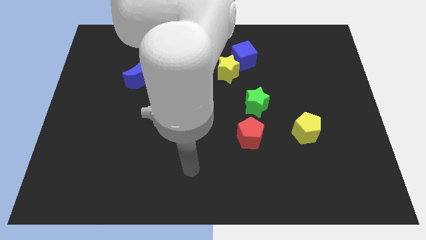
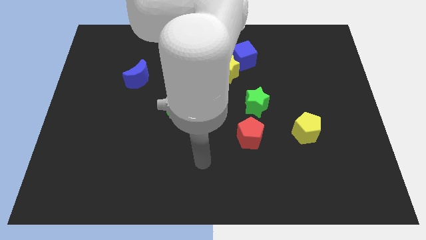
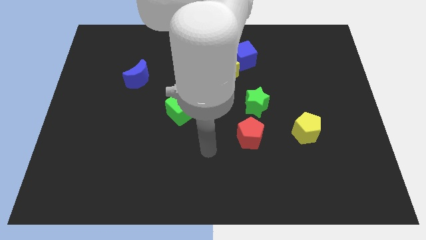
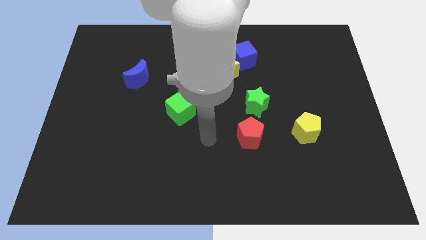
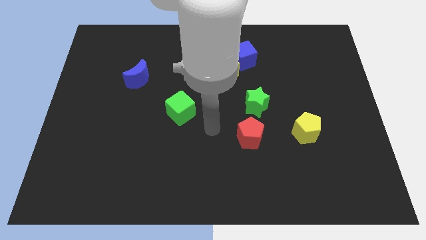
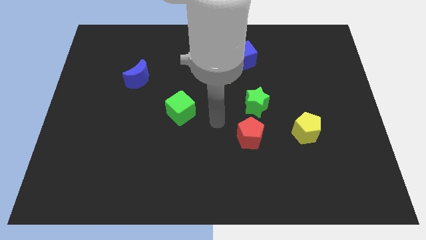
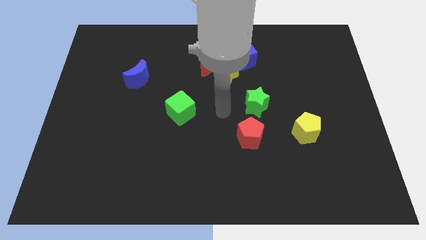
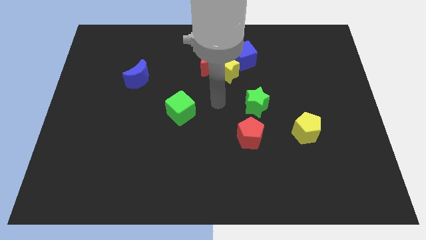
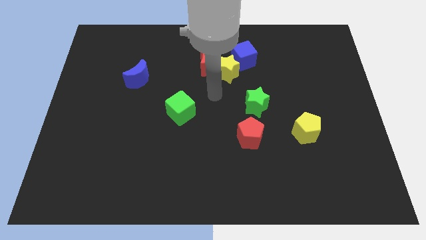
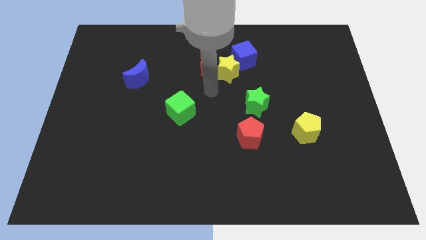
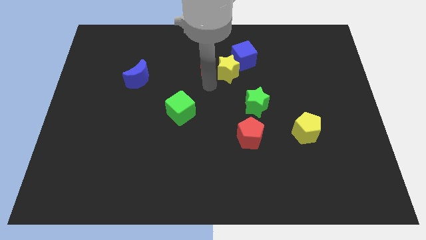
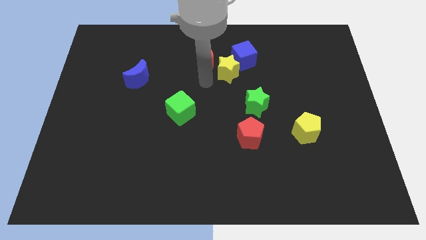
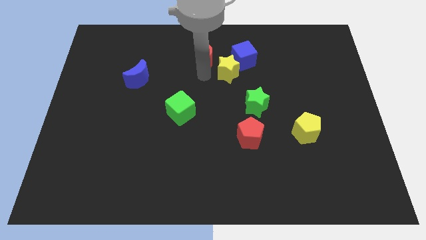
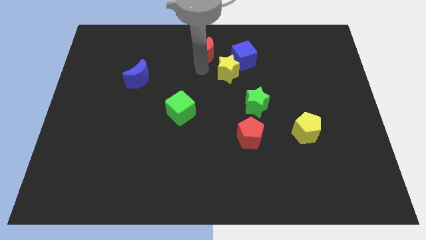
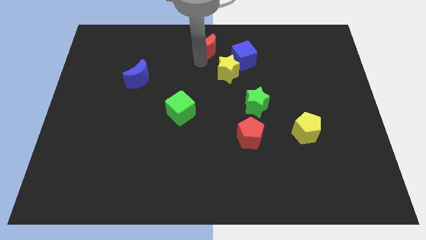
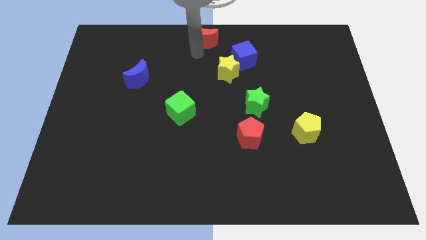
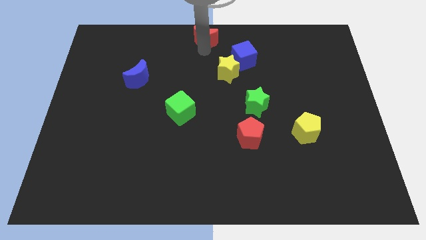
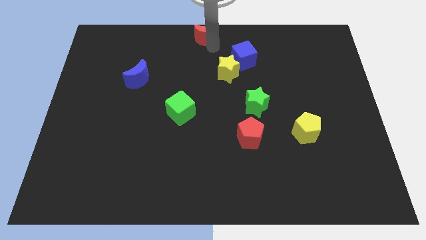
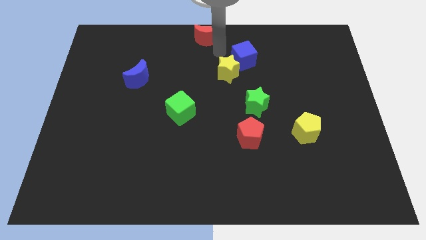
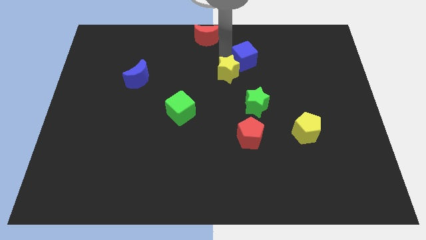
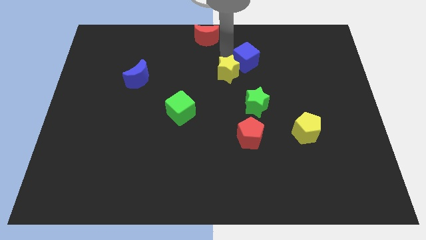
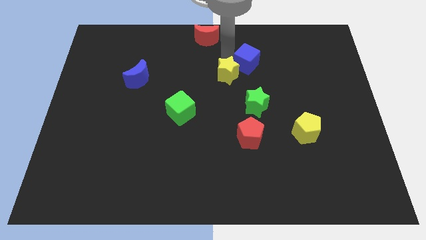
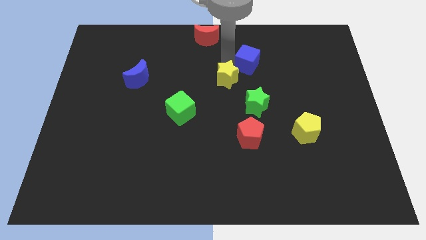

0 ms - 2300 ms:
separate the yellow star from the blue cube and red moon

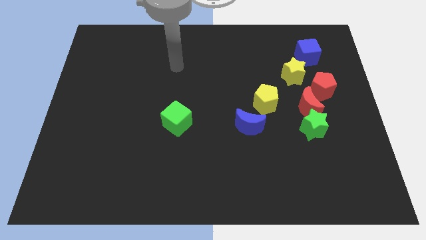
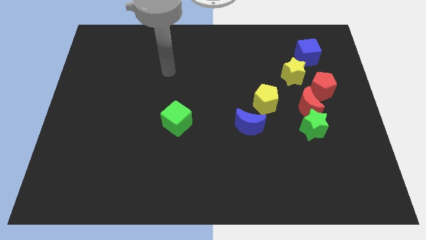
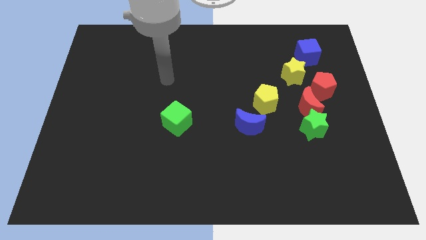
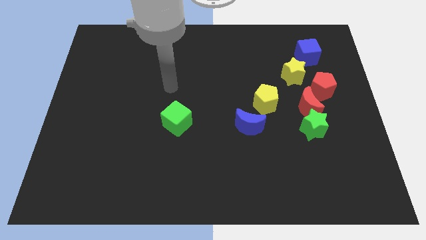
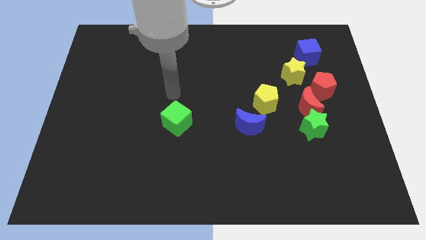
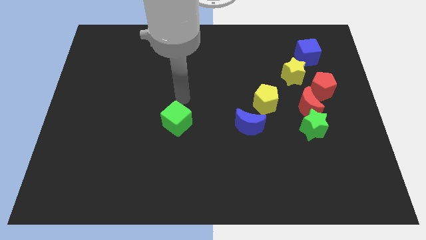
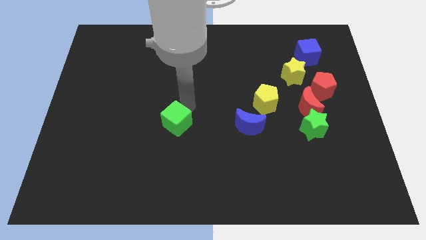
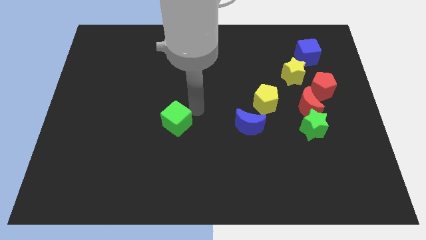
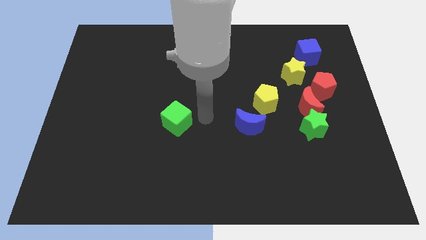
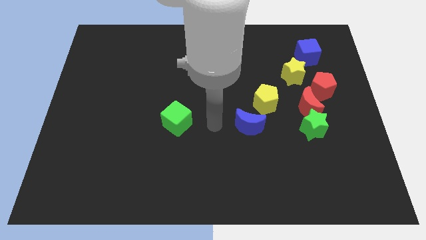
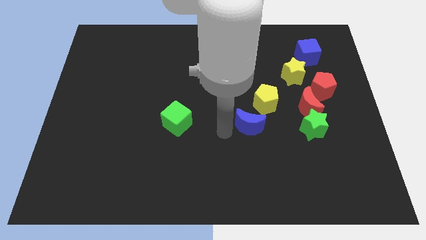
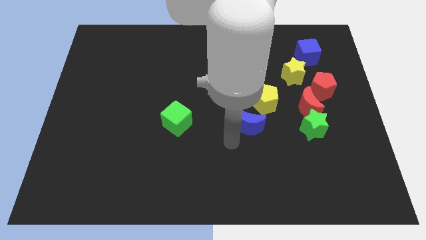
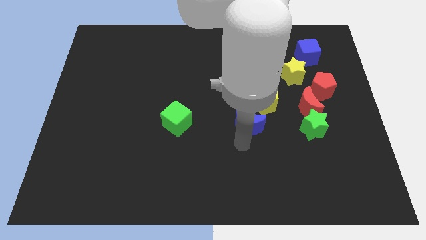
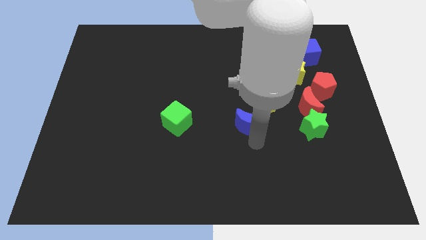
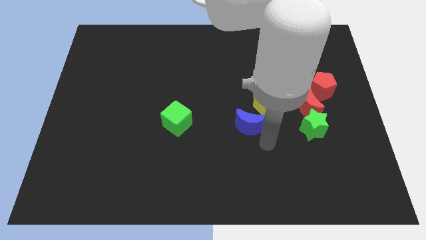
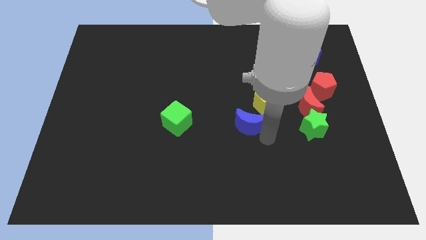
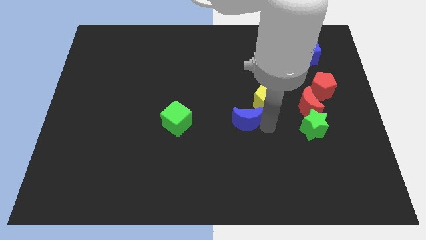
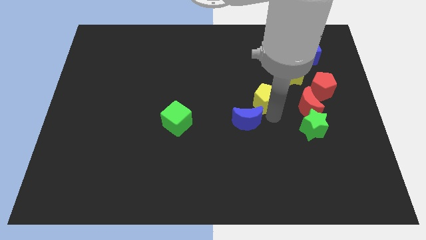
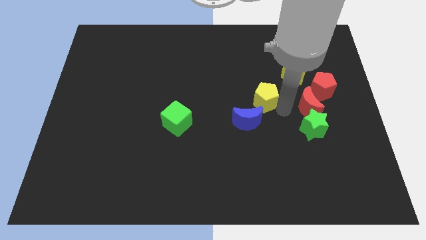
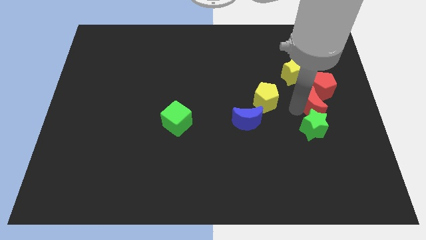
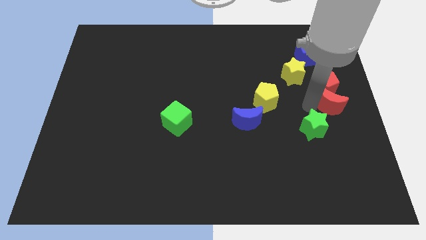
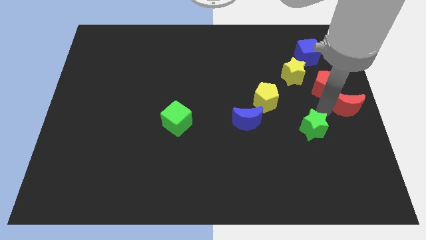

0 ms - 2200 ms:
separate the green star from the red moon

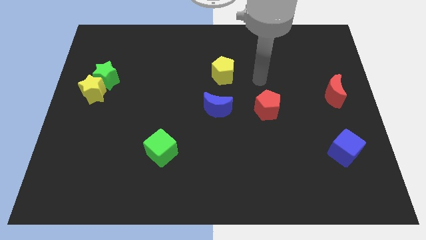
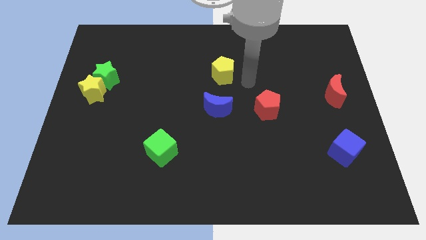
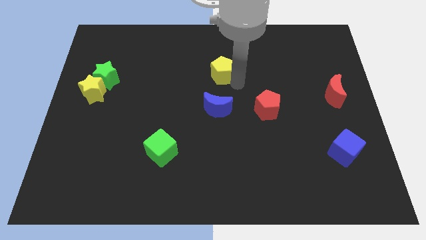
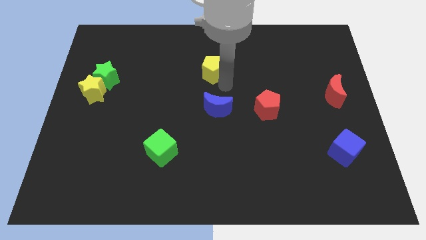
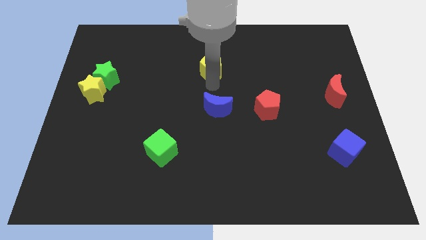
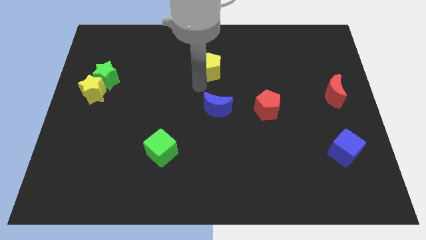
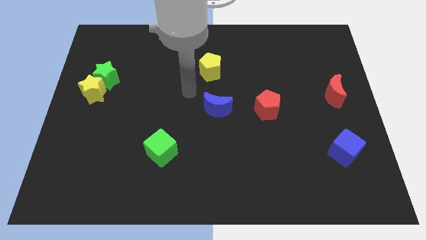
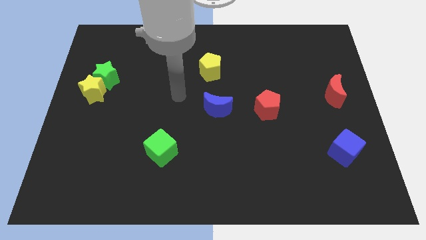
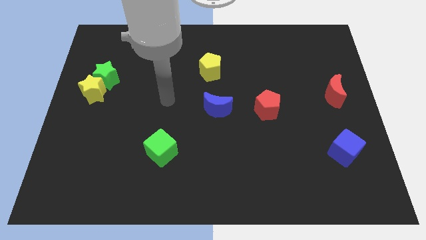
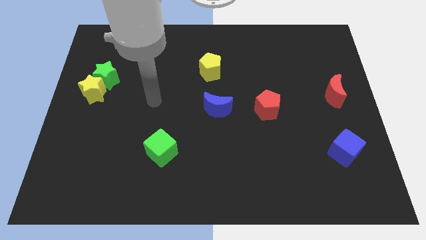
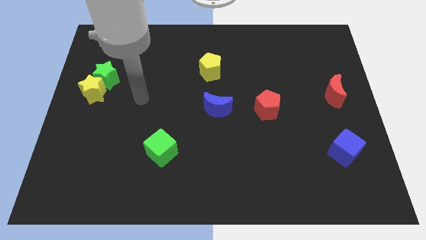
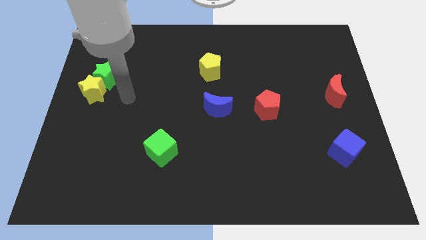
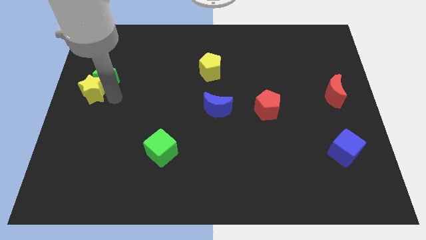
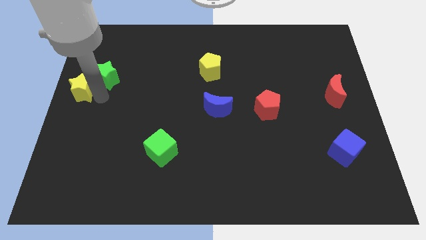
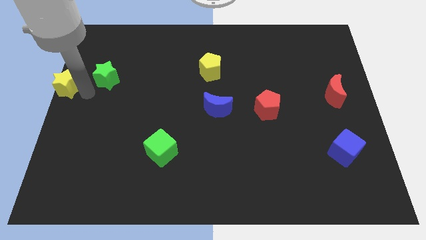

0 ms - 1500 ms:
pull the green star apart from the yellow star

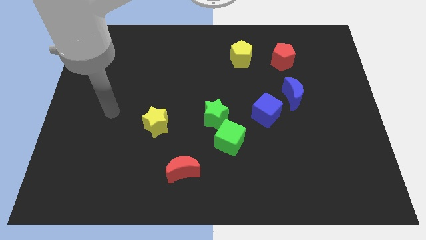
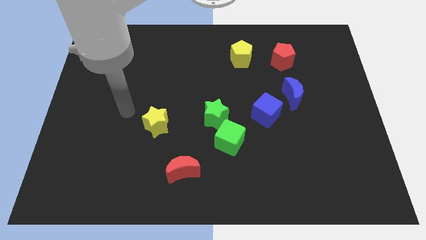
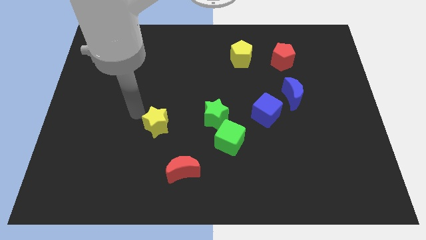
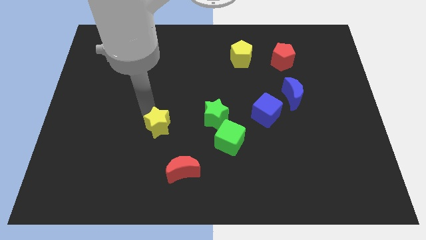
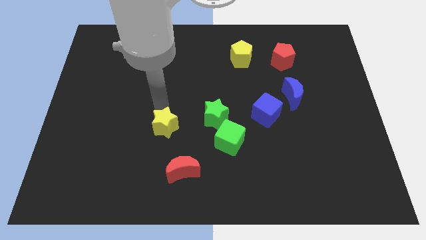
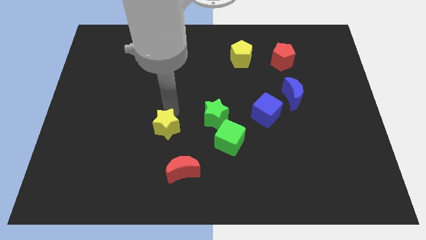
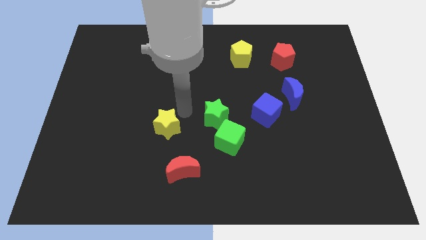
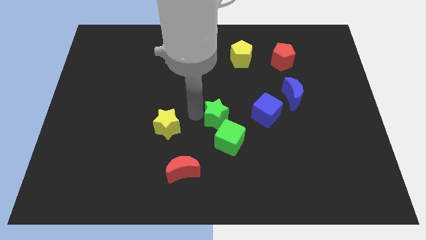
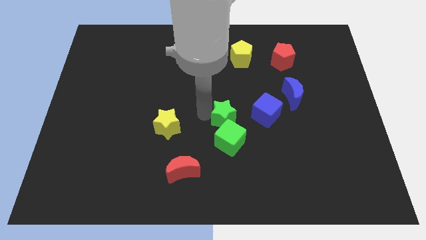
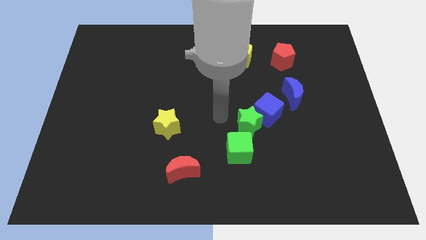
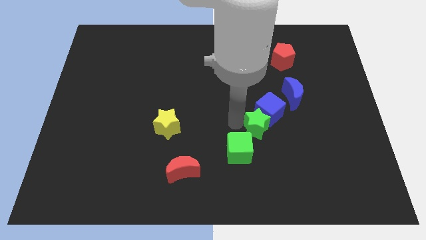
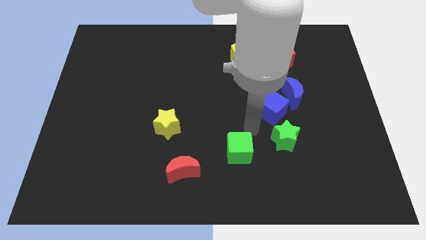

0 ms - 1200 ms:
pull the green cube apart from the green star

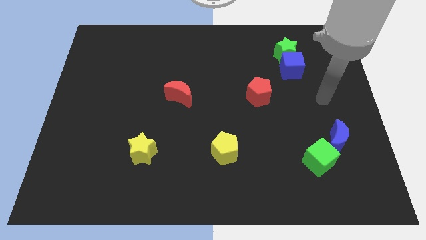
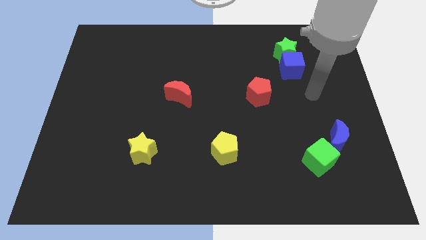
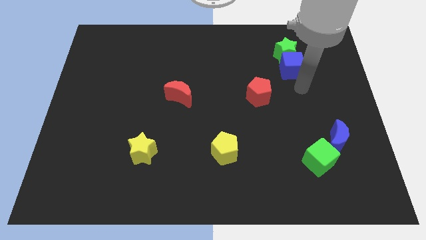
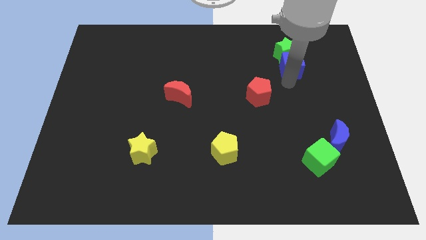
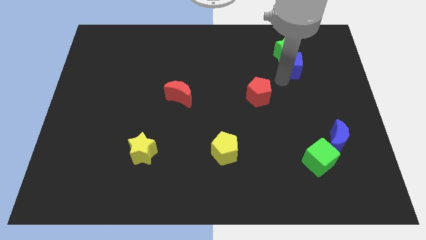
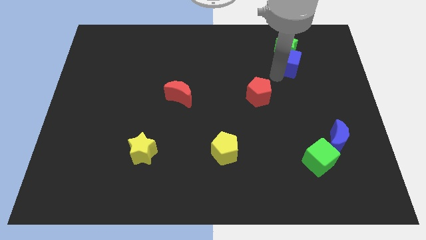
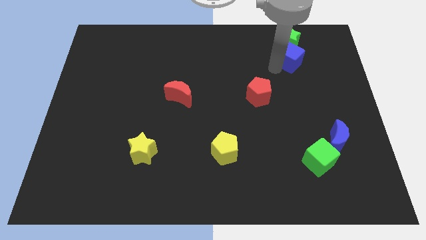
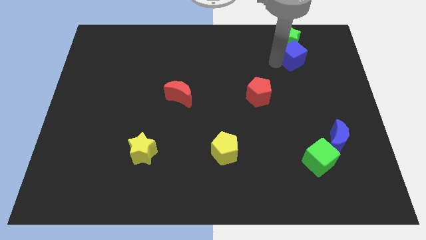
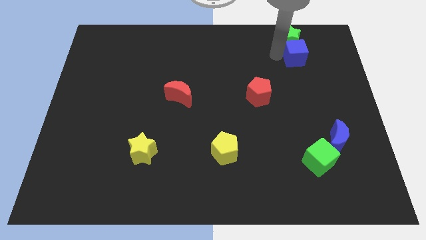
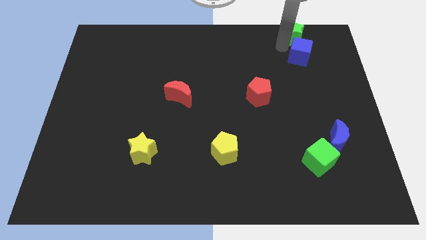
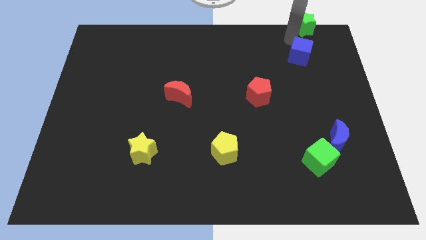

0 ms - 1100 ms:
move the blue cube away from the green star

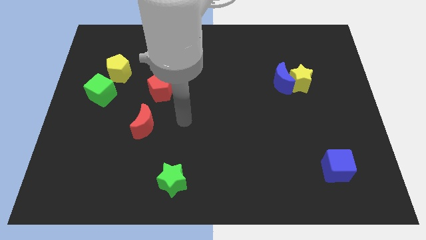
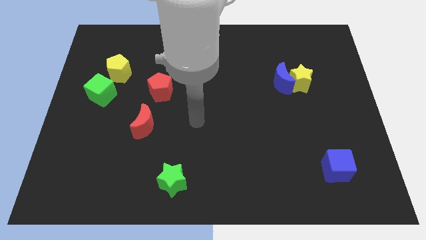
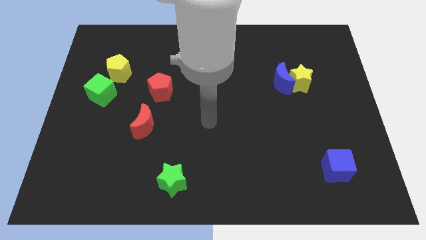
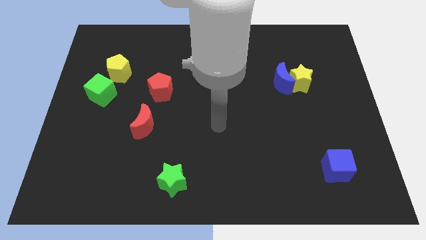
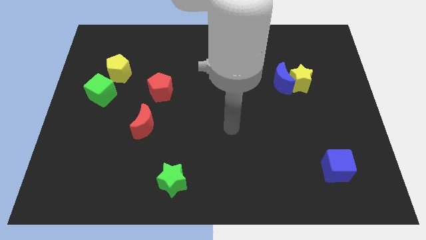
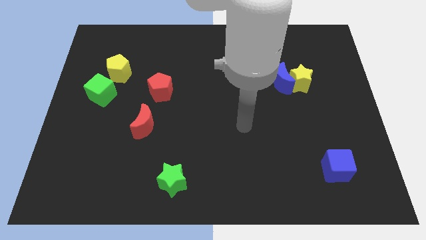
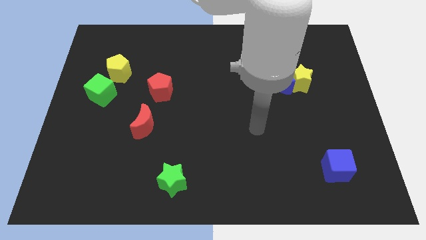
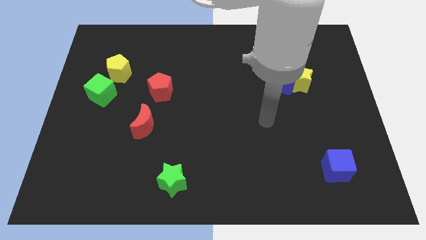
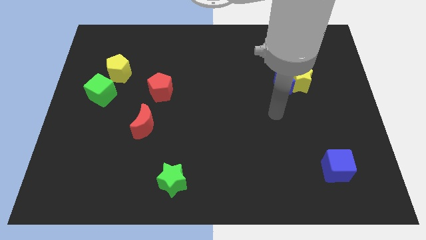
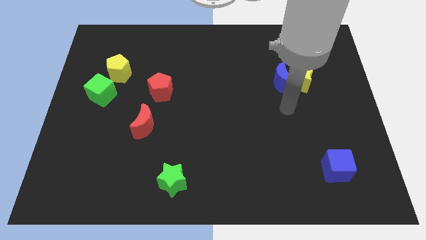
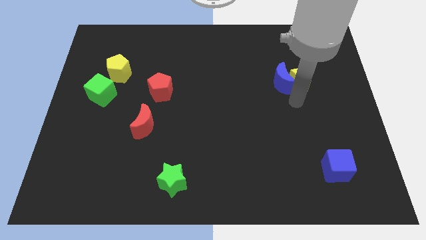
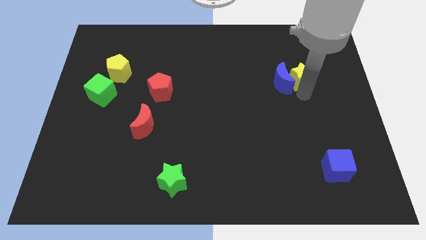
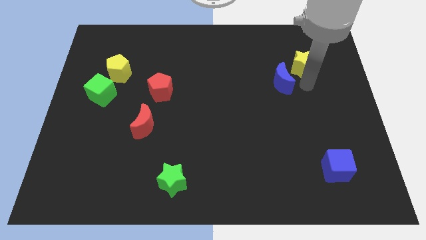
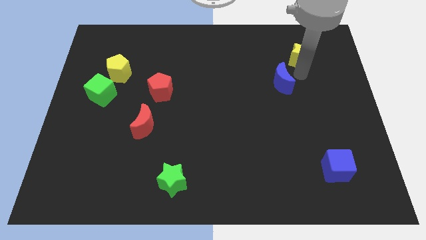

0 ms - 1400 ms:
move the blue moon away from the yellow star
